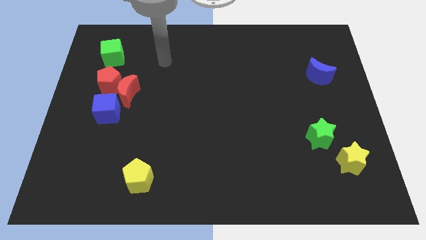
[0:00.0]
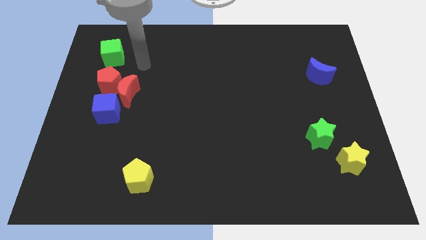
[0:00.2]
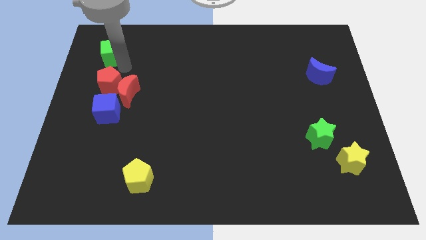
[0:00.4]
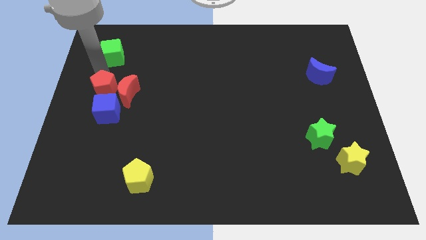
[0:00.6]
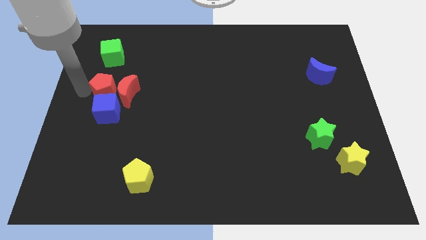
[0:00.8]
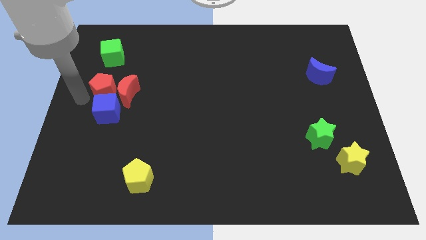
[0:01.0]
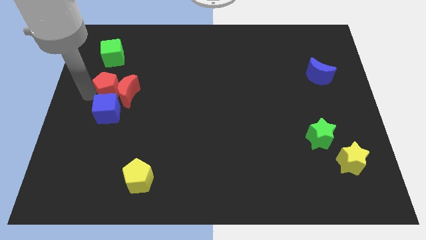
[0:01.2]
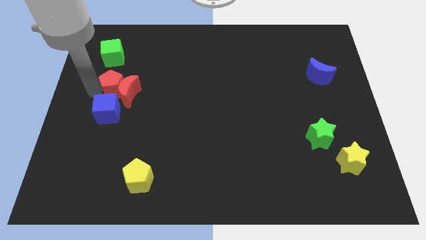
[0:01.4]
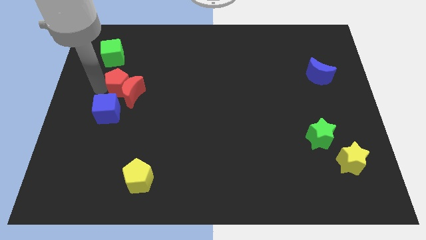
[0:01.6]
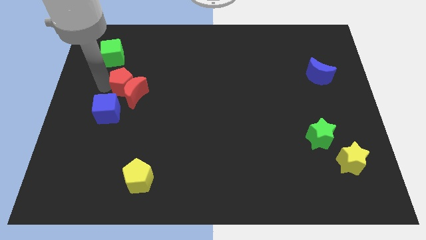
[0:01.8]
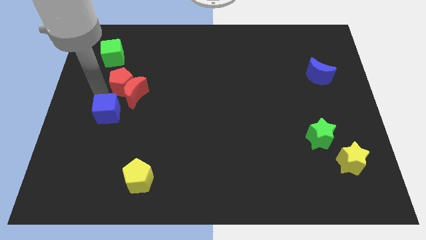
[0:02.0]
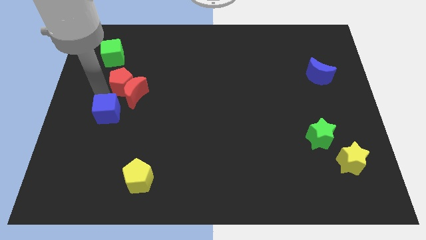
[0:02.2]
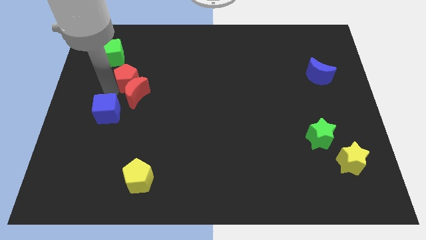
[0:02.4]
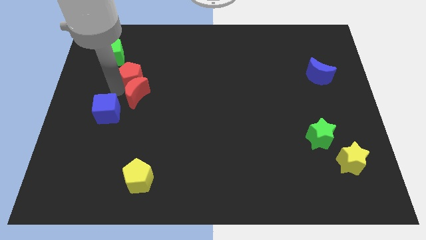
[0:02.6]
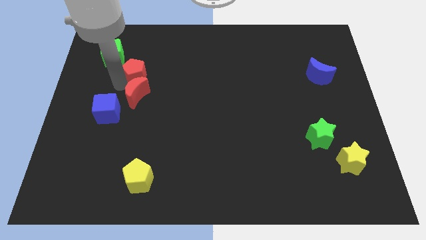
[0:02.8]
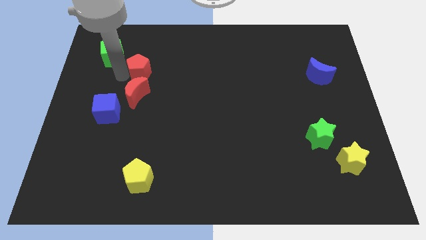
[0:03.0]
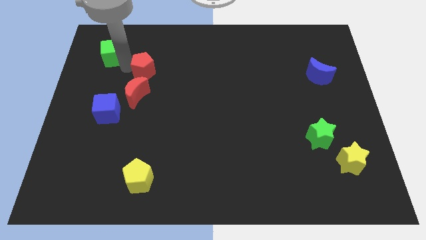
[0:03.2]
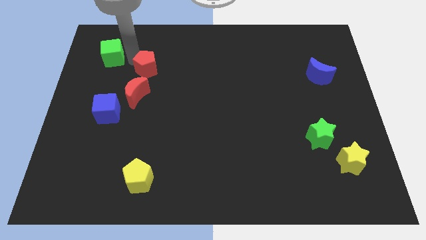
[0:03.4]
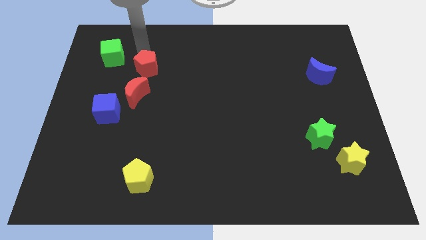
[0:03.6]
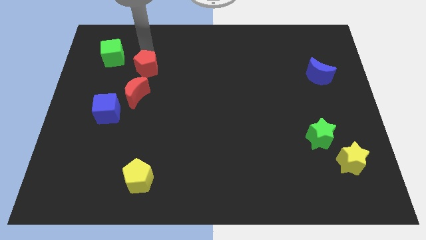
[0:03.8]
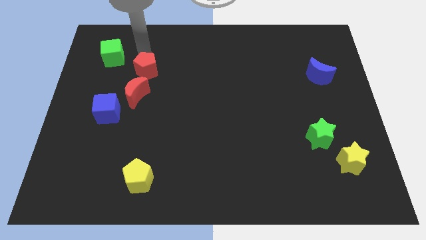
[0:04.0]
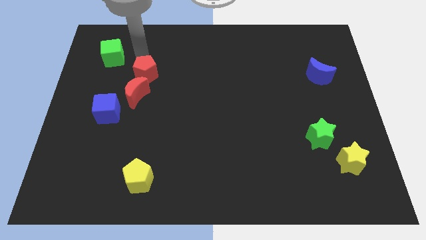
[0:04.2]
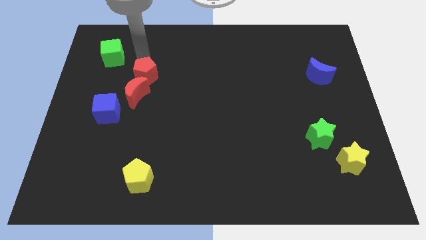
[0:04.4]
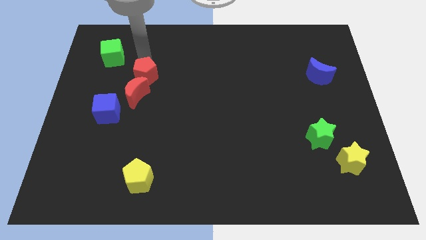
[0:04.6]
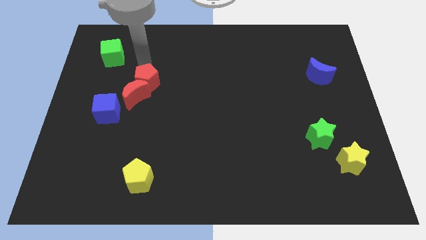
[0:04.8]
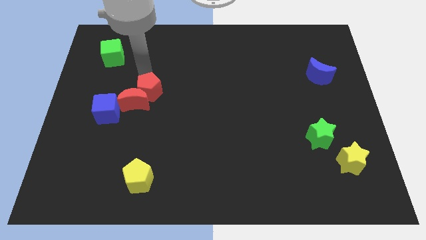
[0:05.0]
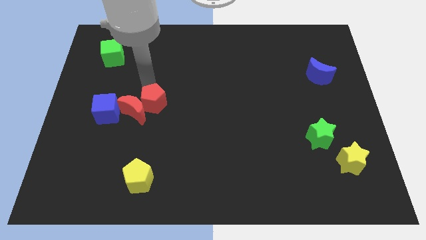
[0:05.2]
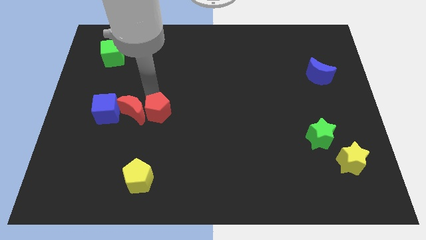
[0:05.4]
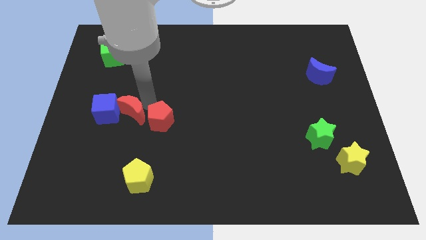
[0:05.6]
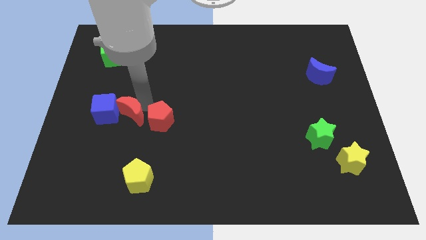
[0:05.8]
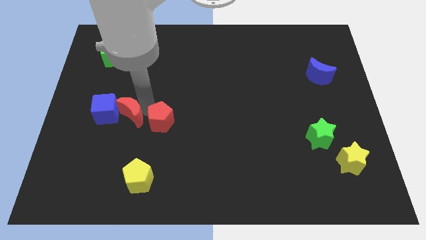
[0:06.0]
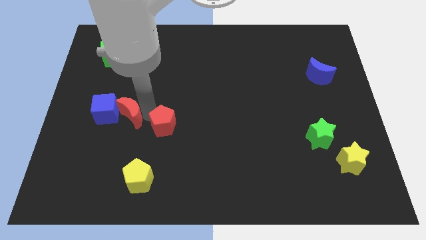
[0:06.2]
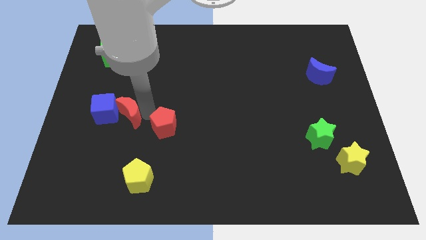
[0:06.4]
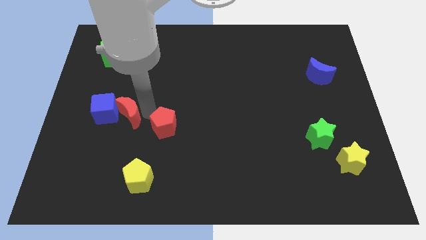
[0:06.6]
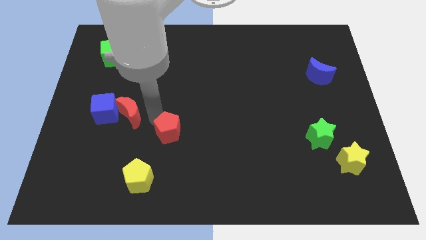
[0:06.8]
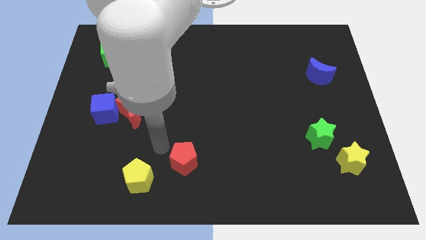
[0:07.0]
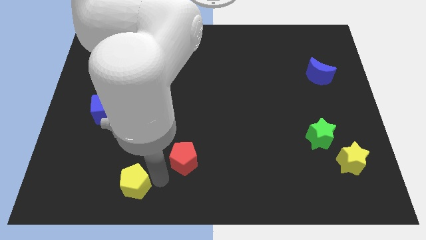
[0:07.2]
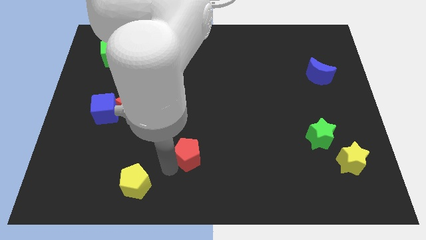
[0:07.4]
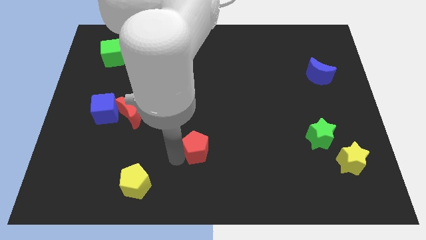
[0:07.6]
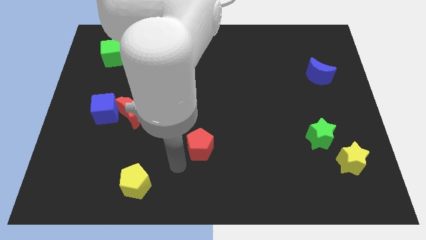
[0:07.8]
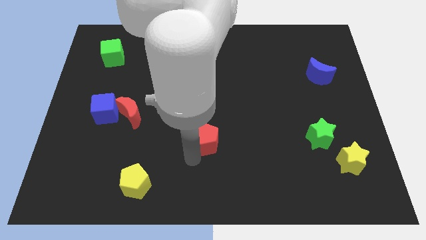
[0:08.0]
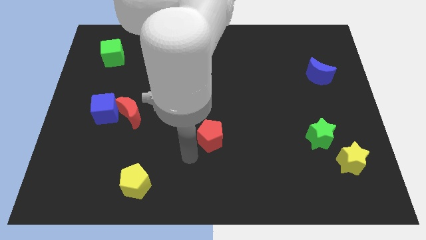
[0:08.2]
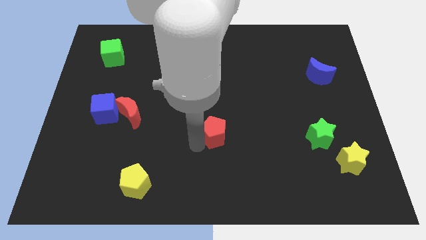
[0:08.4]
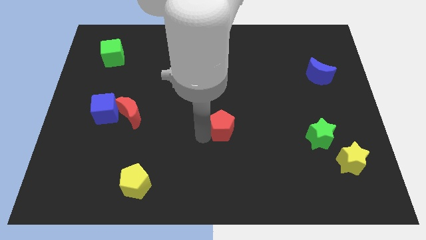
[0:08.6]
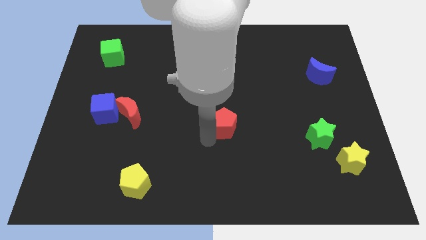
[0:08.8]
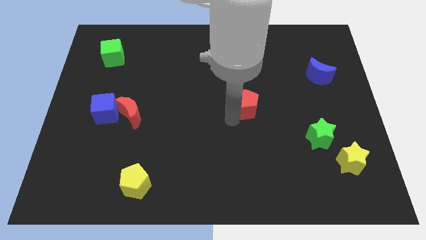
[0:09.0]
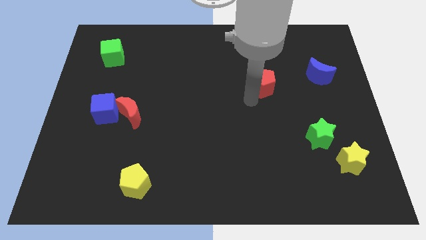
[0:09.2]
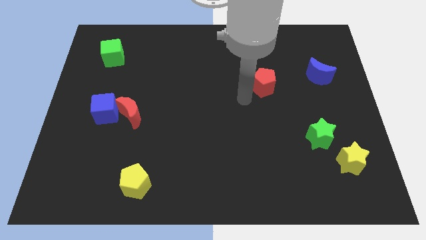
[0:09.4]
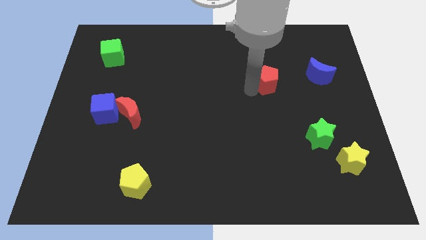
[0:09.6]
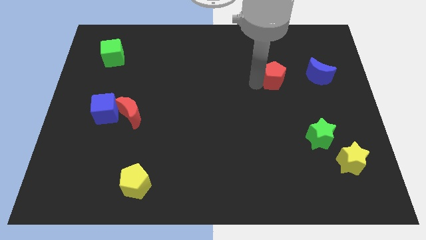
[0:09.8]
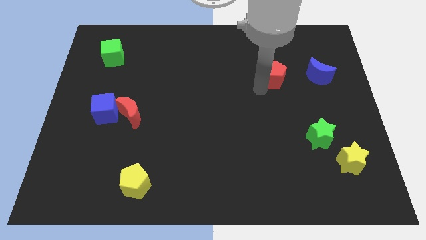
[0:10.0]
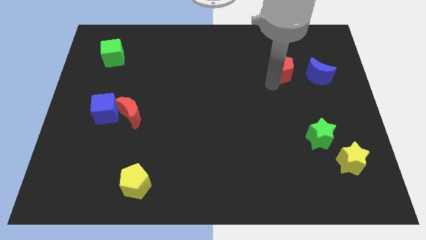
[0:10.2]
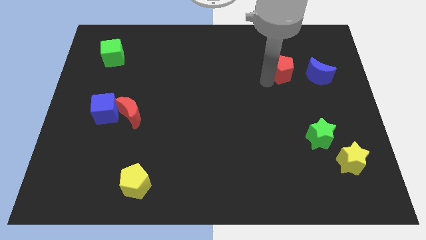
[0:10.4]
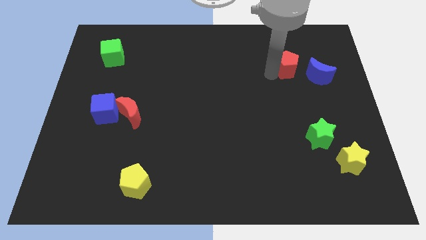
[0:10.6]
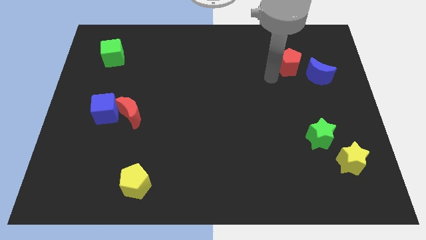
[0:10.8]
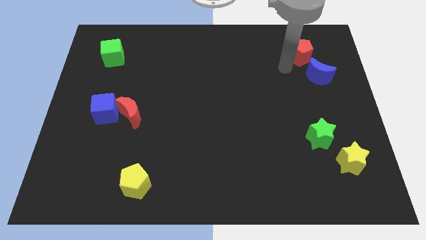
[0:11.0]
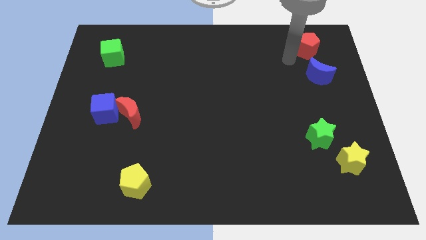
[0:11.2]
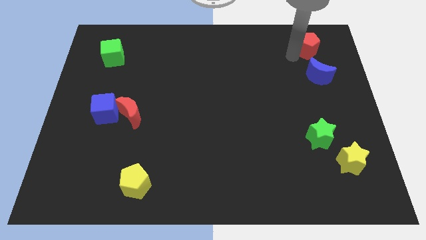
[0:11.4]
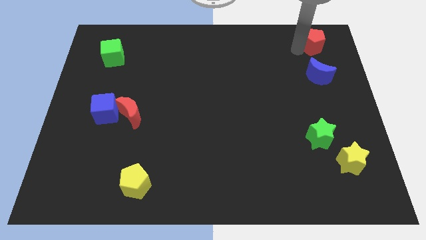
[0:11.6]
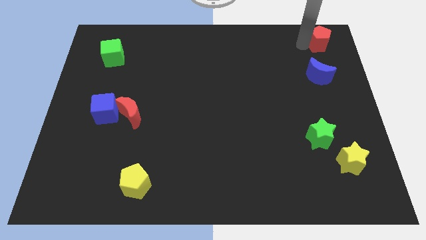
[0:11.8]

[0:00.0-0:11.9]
move the red pentagon to the top right corner

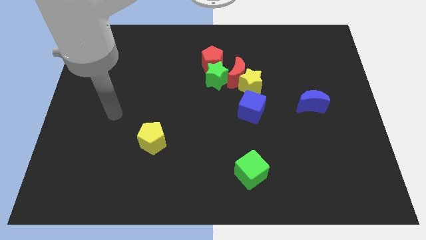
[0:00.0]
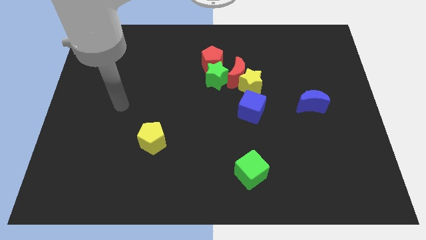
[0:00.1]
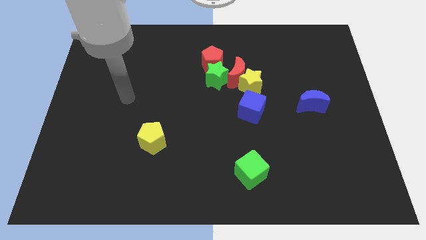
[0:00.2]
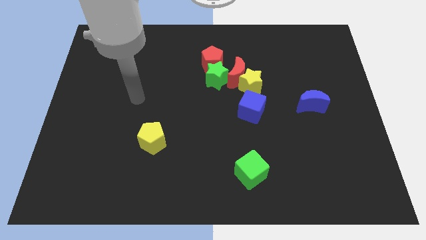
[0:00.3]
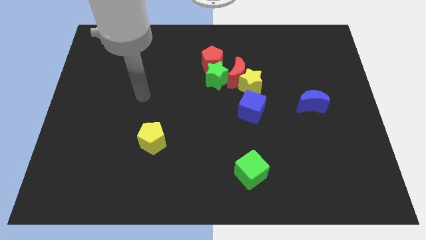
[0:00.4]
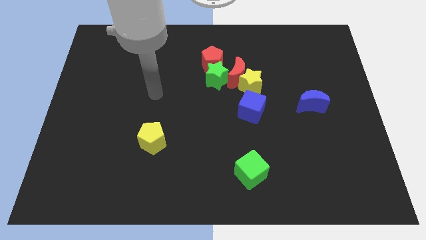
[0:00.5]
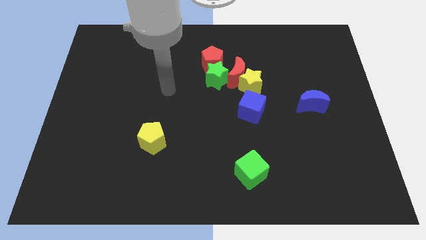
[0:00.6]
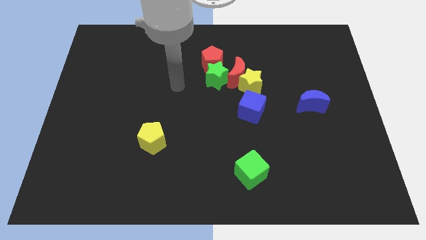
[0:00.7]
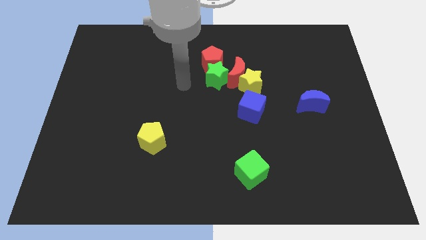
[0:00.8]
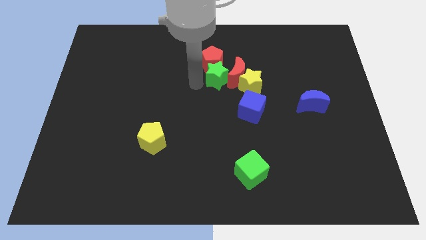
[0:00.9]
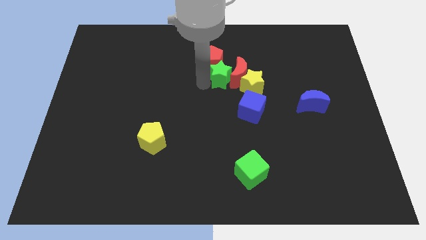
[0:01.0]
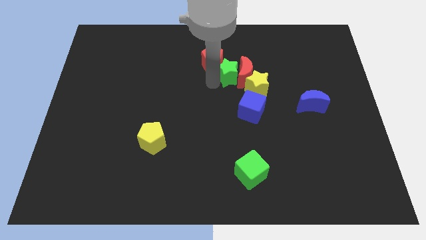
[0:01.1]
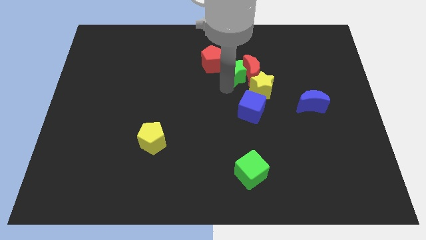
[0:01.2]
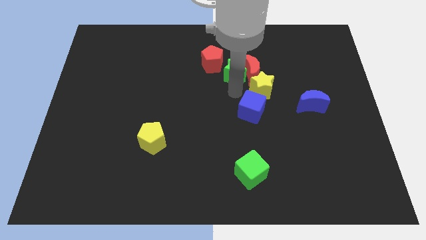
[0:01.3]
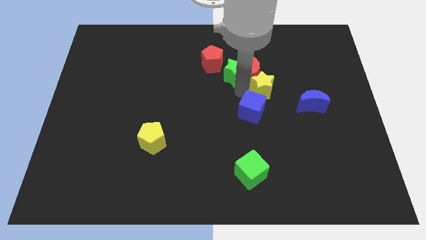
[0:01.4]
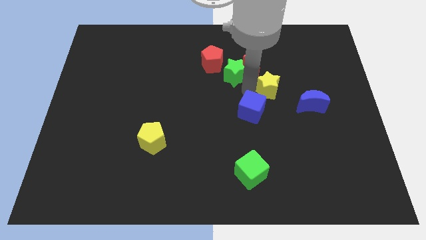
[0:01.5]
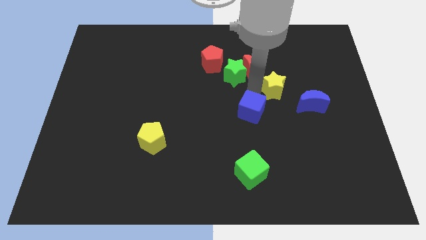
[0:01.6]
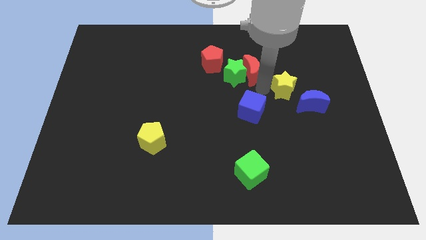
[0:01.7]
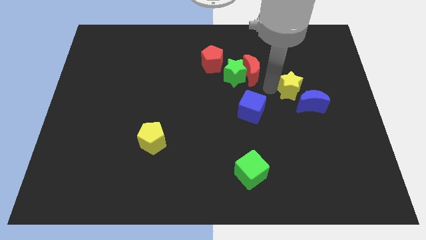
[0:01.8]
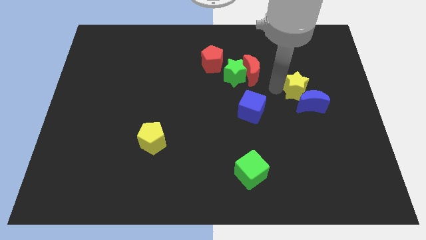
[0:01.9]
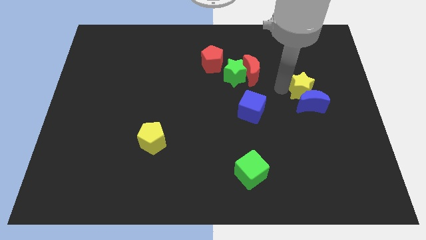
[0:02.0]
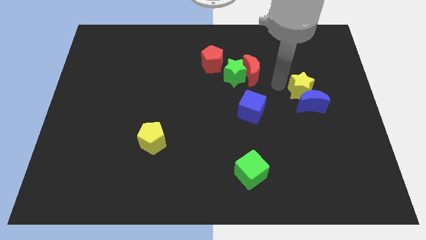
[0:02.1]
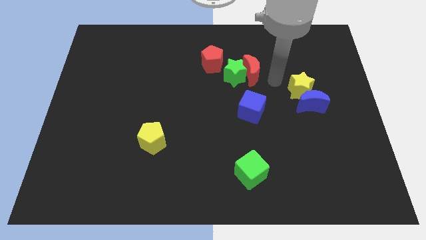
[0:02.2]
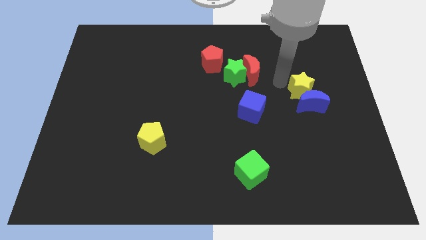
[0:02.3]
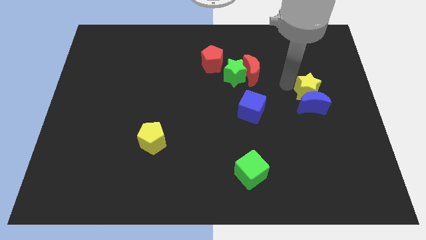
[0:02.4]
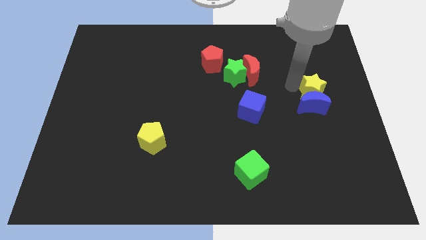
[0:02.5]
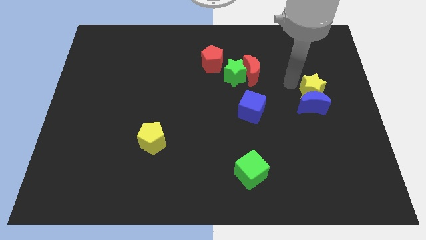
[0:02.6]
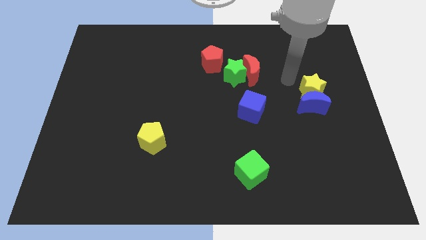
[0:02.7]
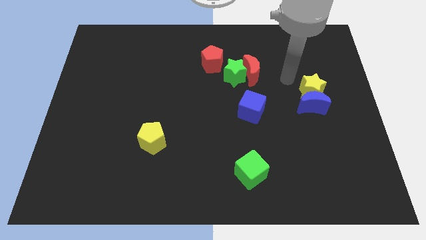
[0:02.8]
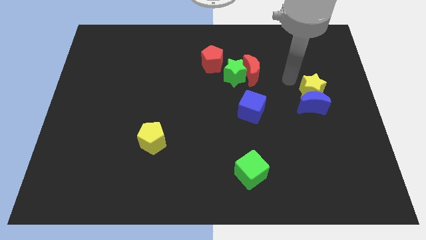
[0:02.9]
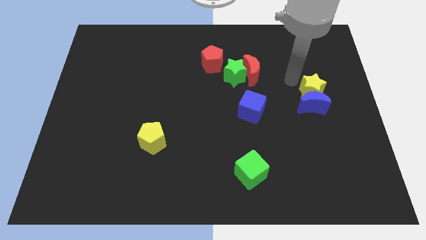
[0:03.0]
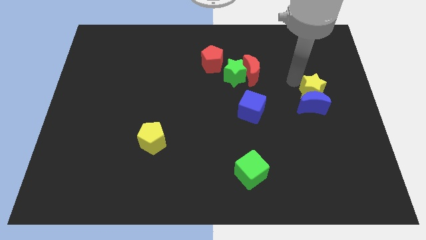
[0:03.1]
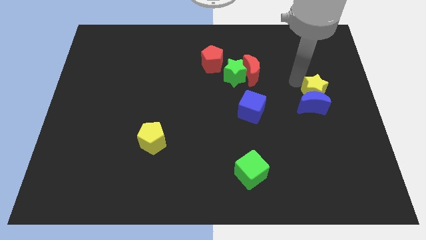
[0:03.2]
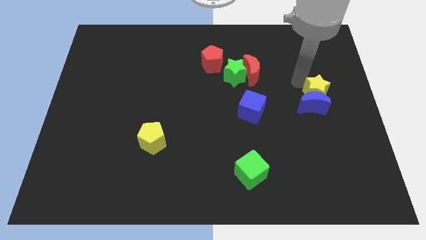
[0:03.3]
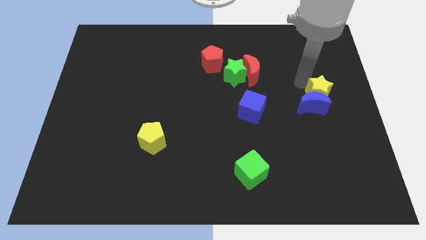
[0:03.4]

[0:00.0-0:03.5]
put the yellow star to the center right
